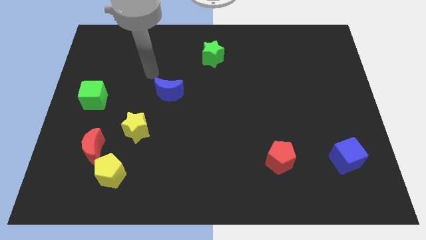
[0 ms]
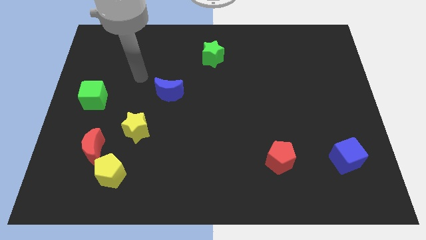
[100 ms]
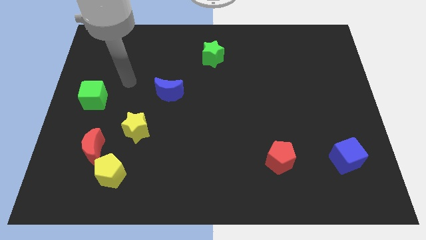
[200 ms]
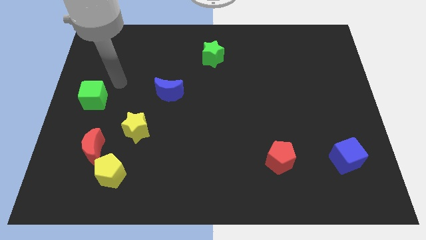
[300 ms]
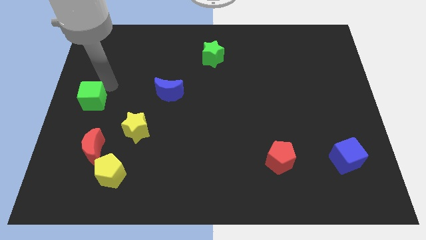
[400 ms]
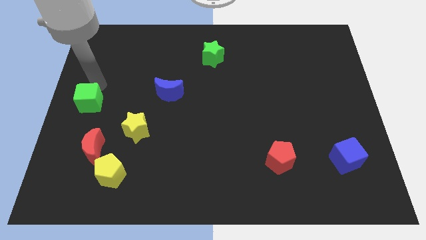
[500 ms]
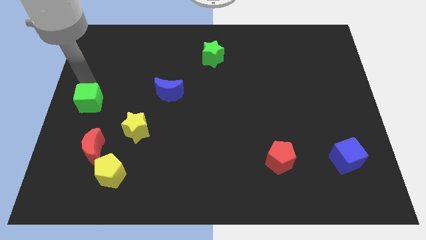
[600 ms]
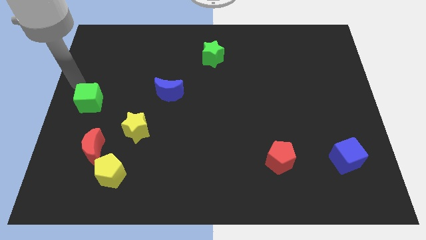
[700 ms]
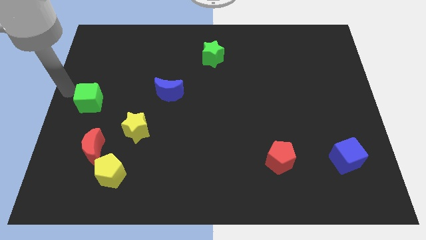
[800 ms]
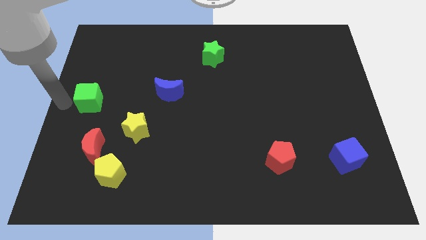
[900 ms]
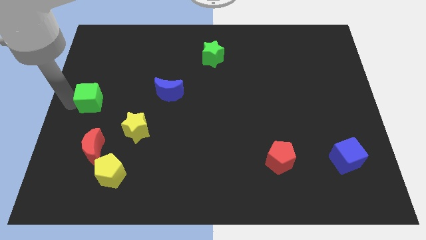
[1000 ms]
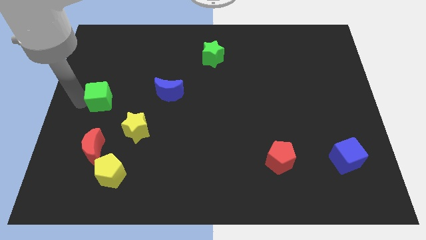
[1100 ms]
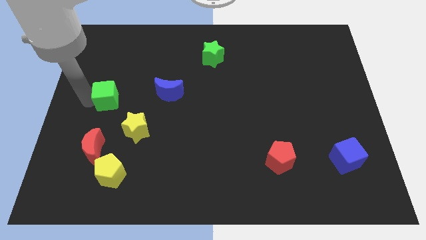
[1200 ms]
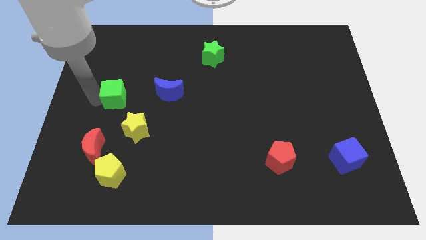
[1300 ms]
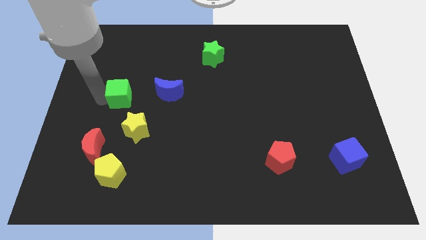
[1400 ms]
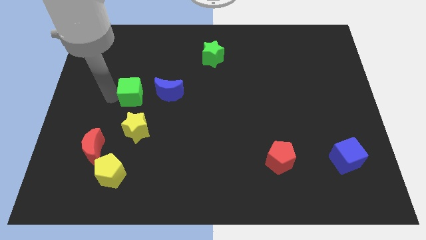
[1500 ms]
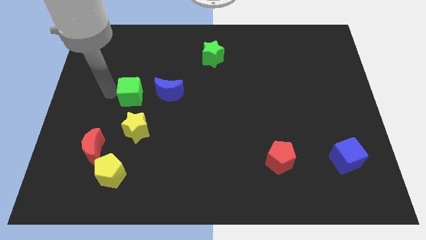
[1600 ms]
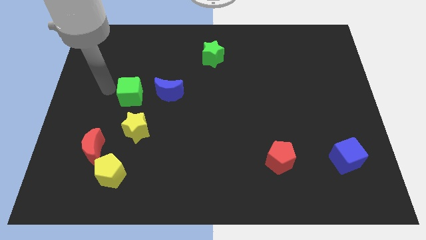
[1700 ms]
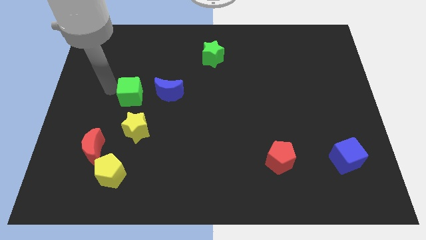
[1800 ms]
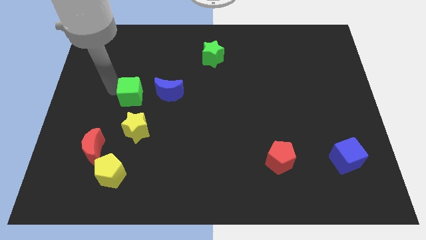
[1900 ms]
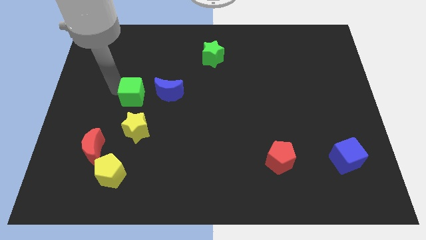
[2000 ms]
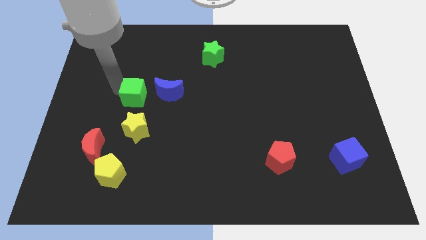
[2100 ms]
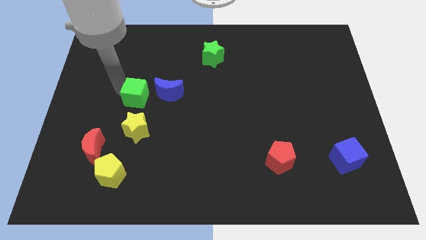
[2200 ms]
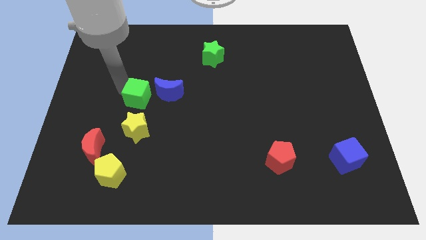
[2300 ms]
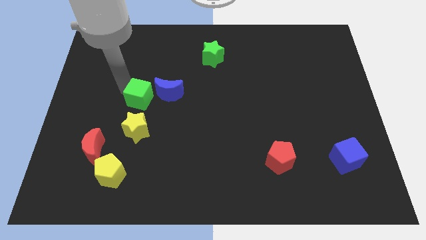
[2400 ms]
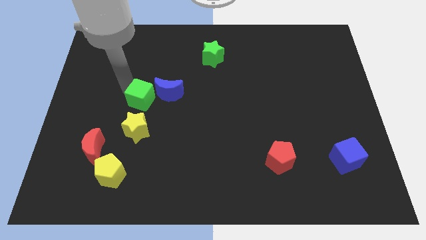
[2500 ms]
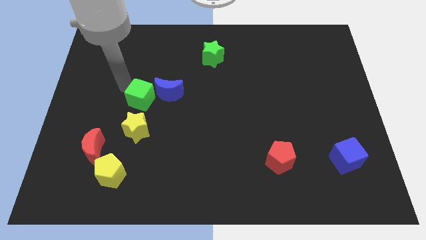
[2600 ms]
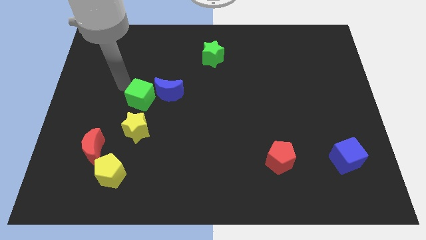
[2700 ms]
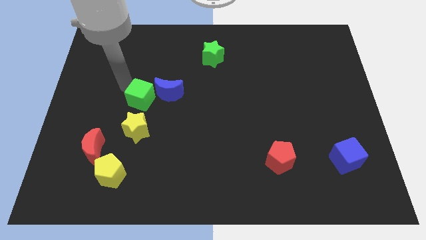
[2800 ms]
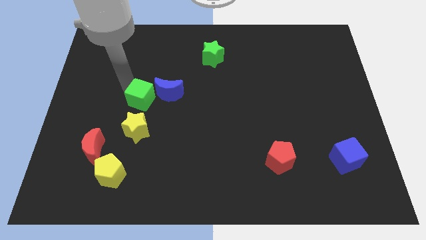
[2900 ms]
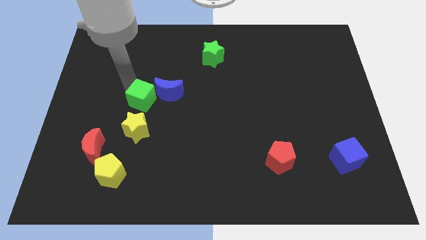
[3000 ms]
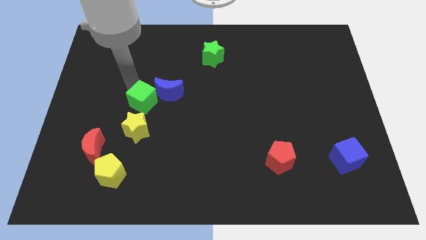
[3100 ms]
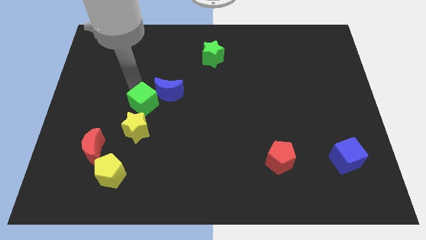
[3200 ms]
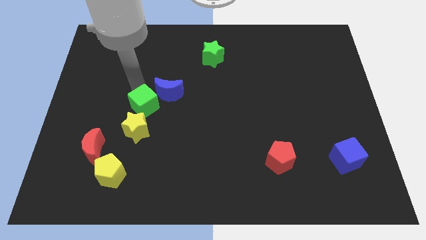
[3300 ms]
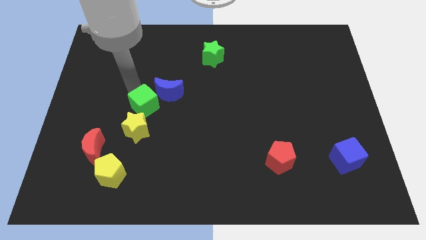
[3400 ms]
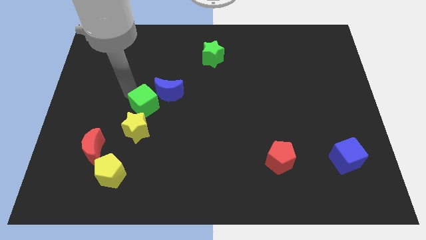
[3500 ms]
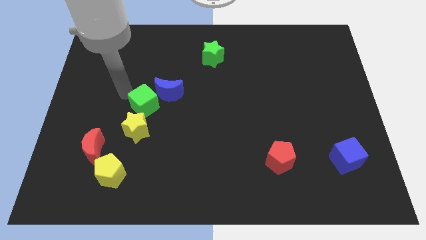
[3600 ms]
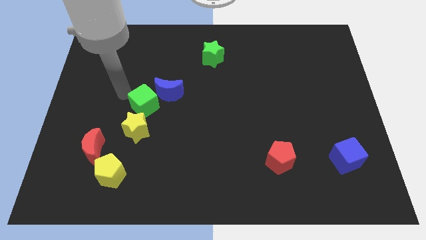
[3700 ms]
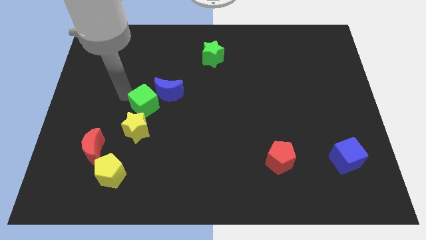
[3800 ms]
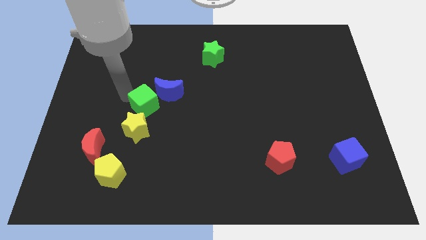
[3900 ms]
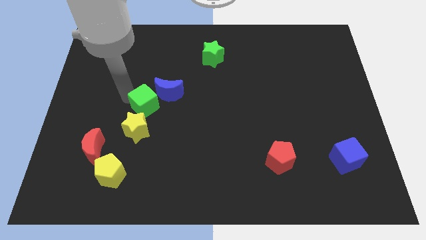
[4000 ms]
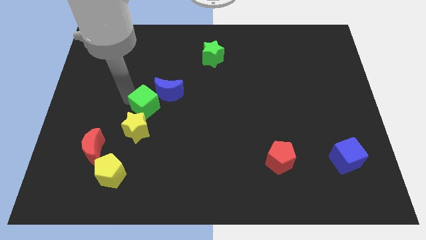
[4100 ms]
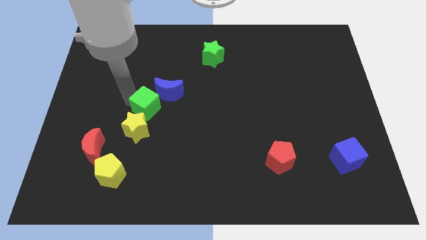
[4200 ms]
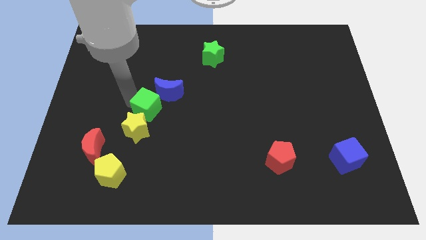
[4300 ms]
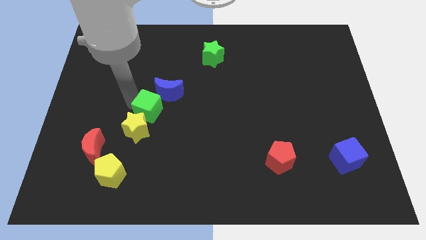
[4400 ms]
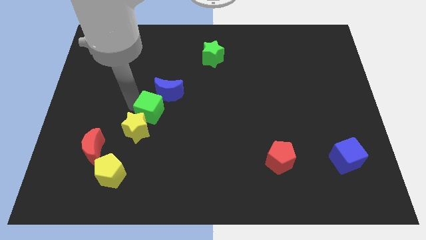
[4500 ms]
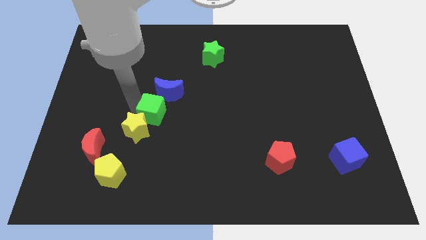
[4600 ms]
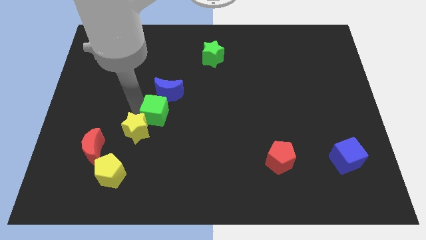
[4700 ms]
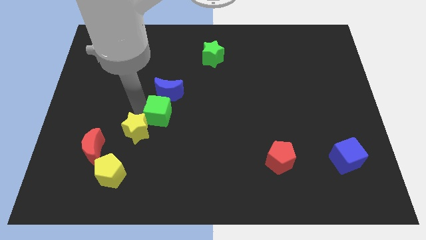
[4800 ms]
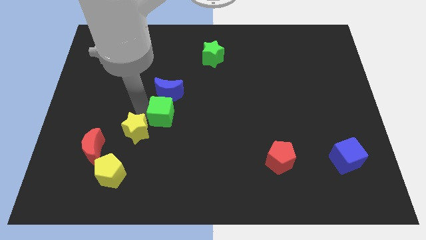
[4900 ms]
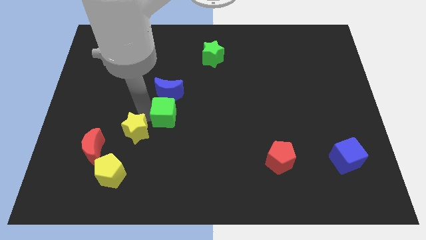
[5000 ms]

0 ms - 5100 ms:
move the green cube diagonally down and to the right of the blue moon

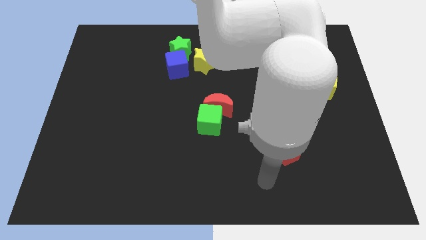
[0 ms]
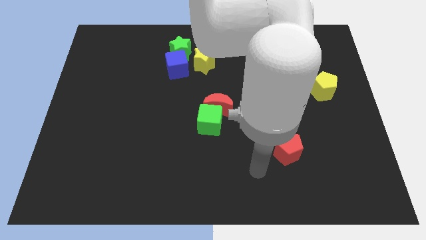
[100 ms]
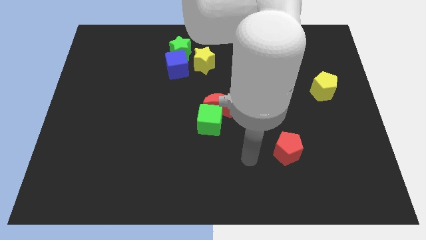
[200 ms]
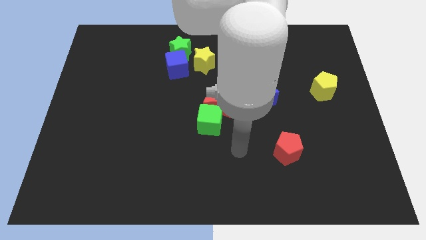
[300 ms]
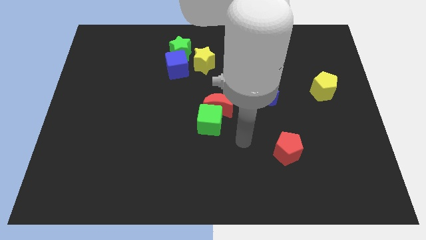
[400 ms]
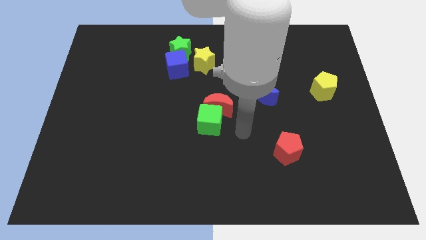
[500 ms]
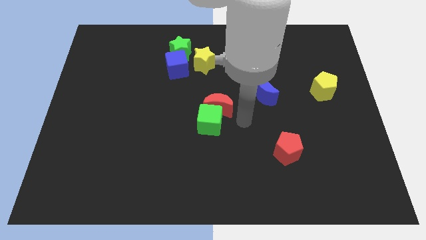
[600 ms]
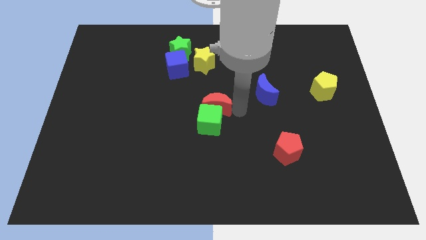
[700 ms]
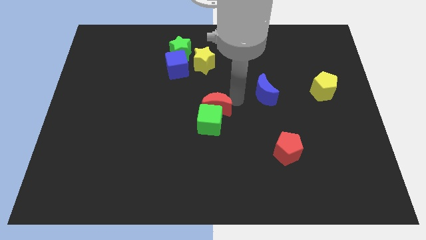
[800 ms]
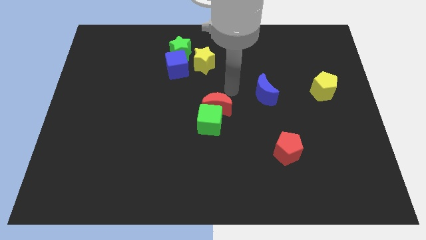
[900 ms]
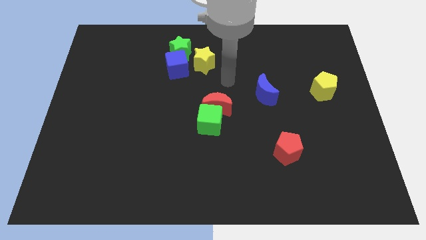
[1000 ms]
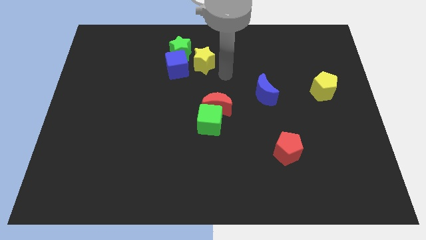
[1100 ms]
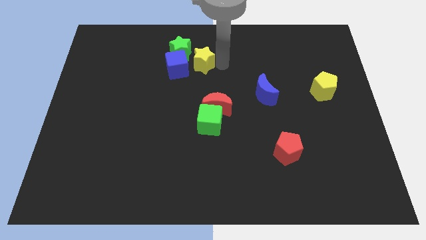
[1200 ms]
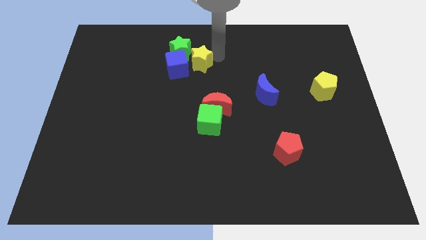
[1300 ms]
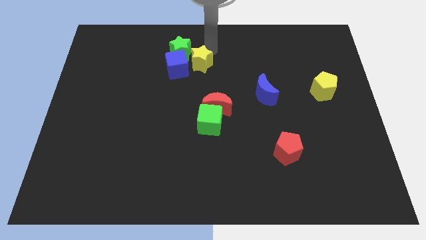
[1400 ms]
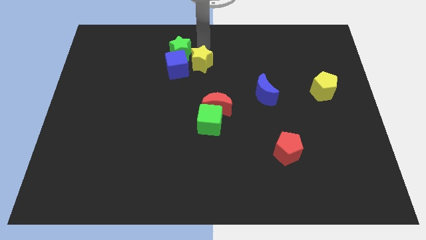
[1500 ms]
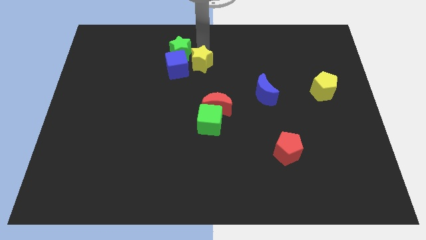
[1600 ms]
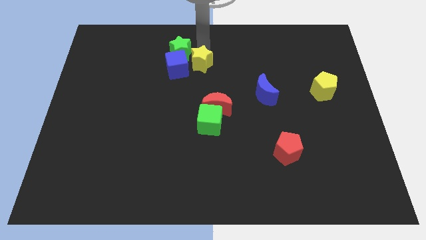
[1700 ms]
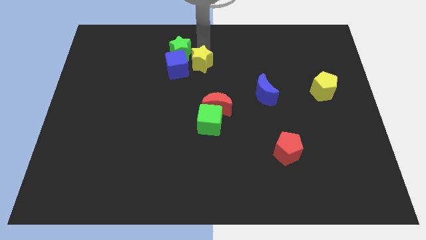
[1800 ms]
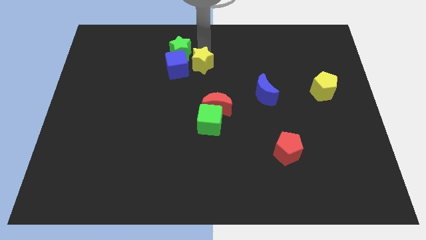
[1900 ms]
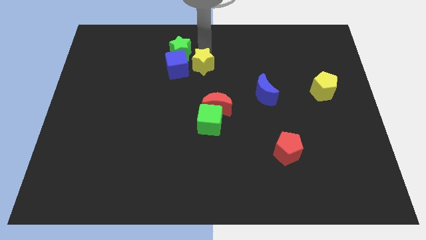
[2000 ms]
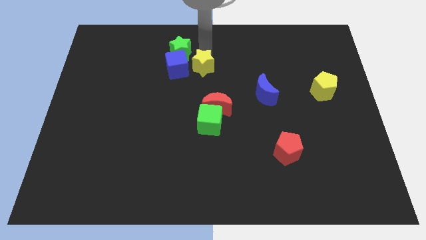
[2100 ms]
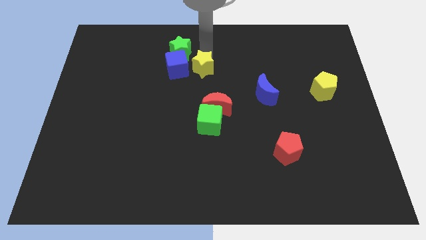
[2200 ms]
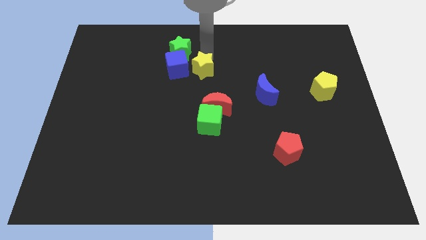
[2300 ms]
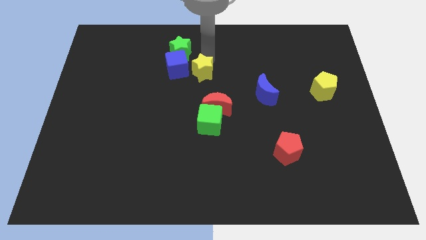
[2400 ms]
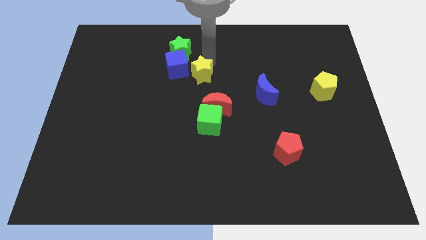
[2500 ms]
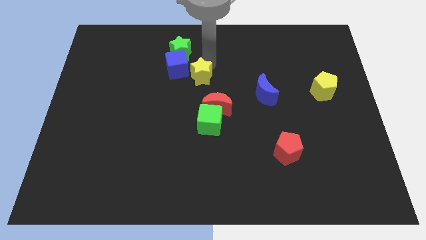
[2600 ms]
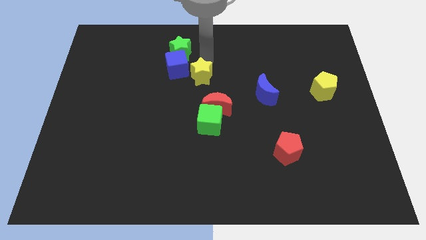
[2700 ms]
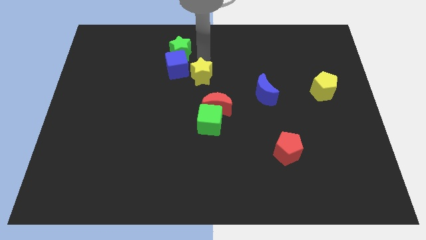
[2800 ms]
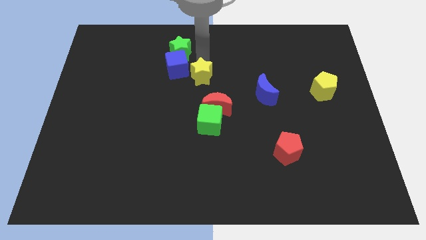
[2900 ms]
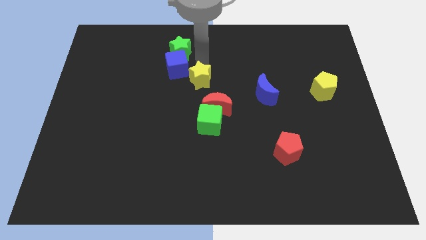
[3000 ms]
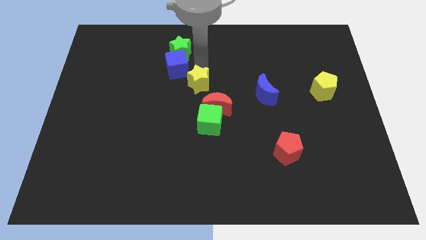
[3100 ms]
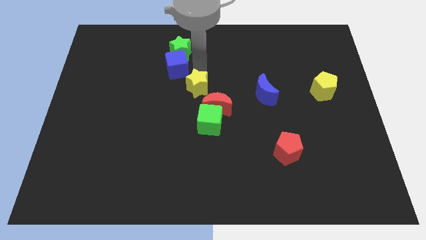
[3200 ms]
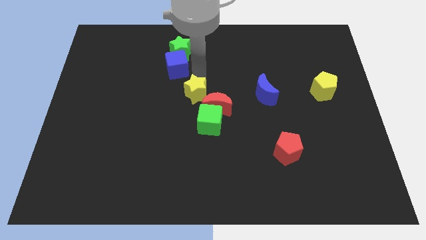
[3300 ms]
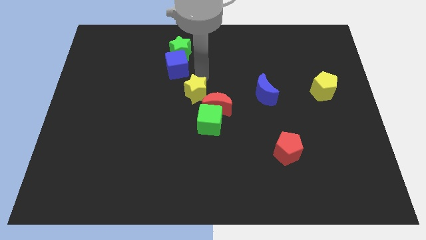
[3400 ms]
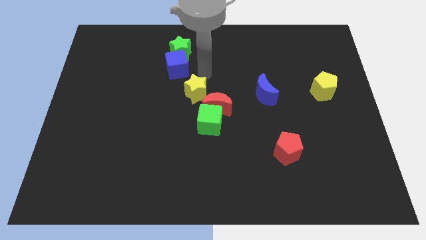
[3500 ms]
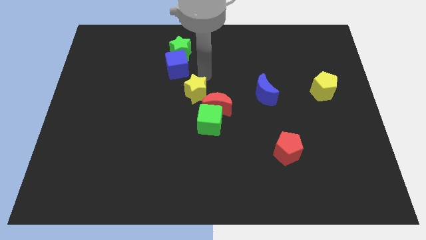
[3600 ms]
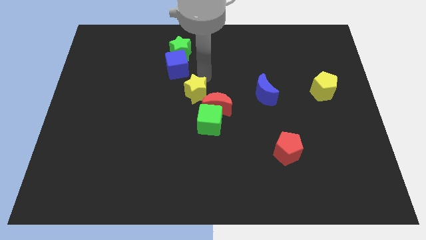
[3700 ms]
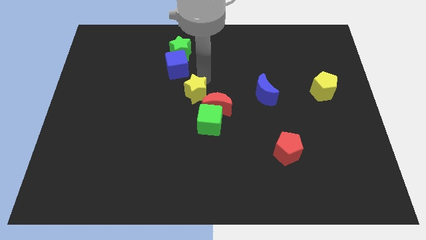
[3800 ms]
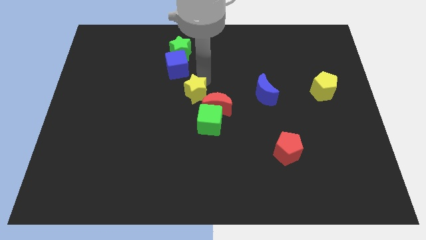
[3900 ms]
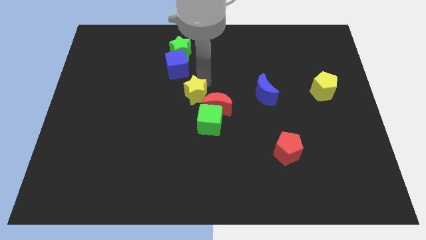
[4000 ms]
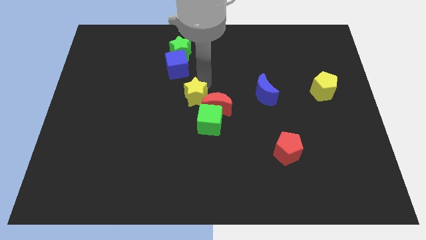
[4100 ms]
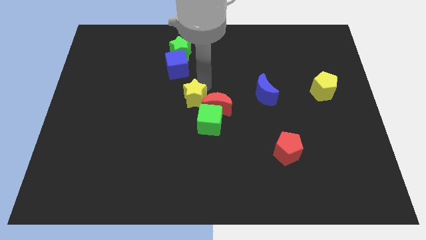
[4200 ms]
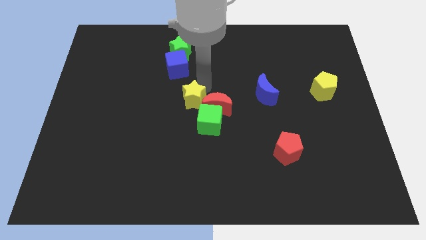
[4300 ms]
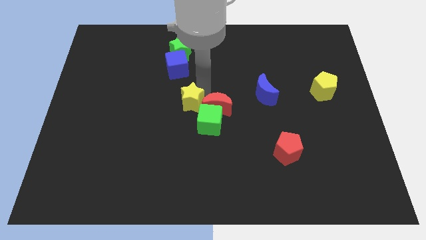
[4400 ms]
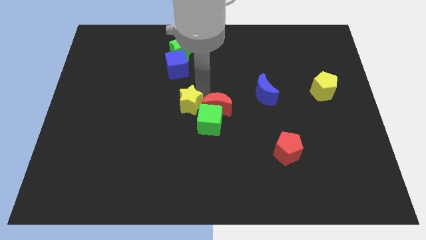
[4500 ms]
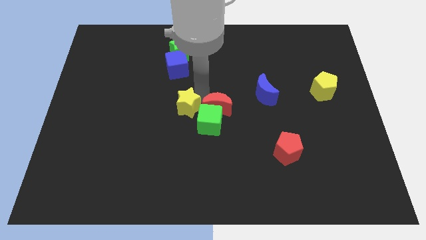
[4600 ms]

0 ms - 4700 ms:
slide the yellow star to the left side of the green cube
